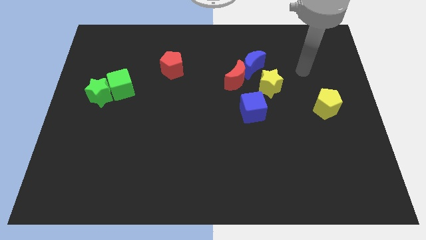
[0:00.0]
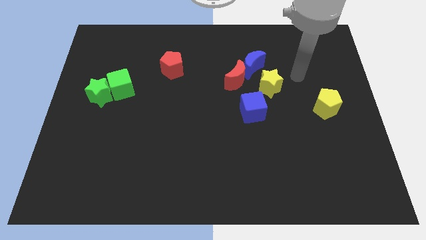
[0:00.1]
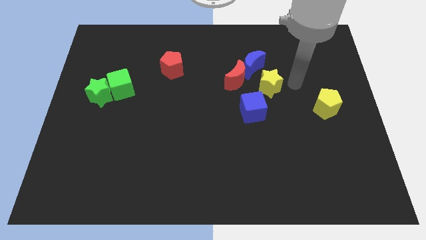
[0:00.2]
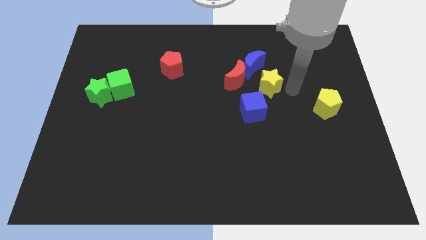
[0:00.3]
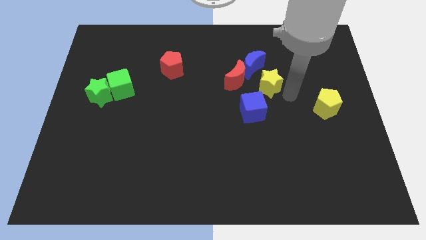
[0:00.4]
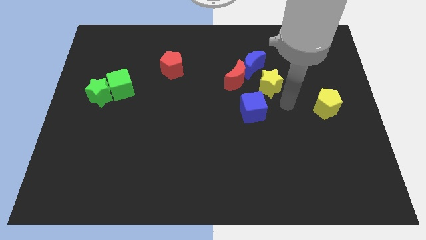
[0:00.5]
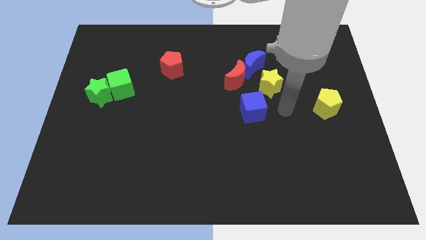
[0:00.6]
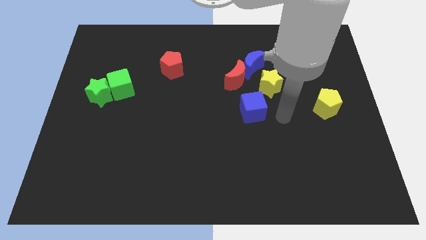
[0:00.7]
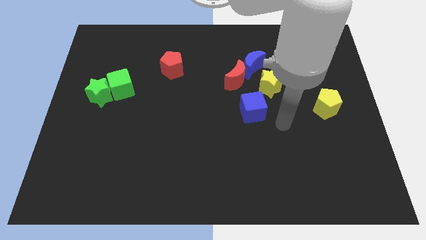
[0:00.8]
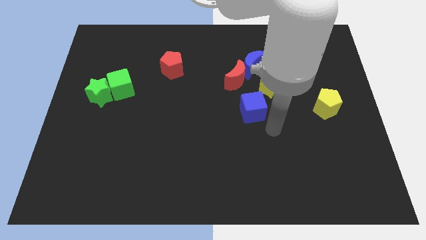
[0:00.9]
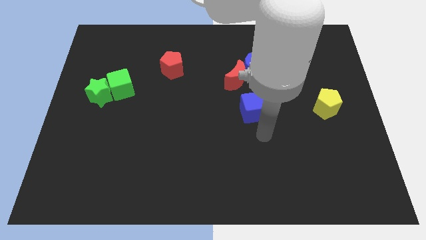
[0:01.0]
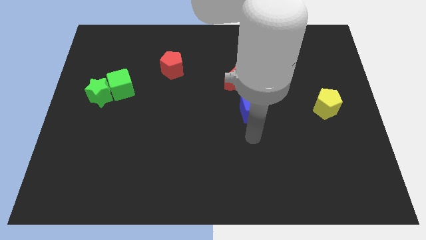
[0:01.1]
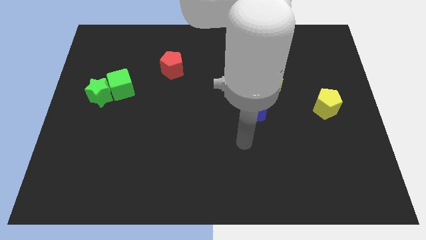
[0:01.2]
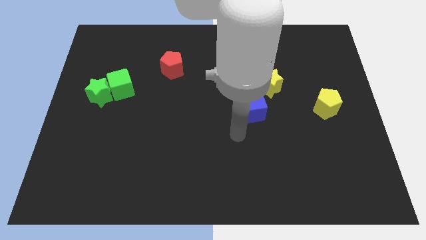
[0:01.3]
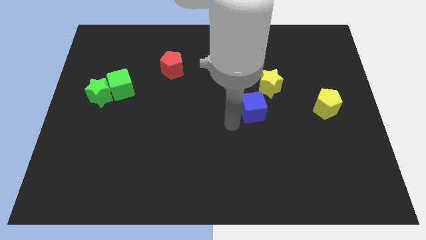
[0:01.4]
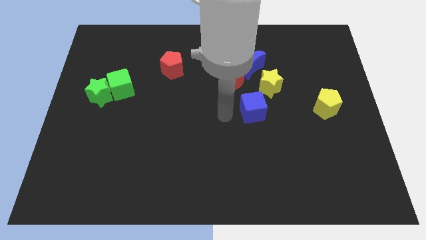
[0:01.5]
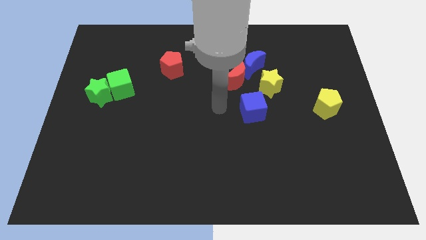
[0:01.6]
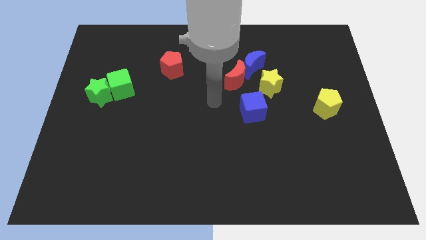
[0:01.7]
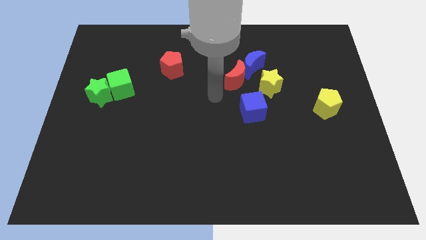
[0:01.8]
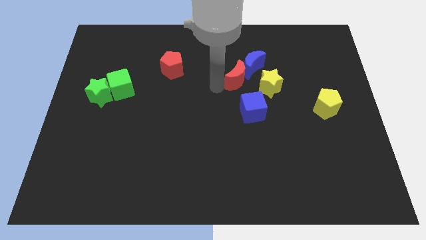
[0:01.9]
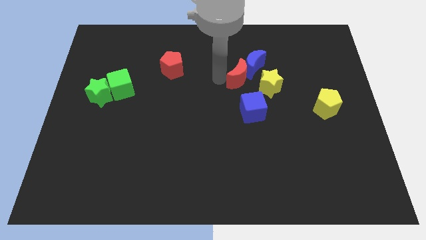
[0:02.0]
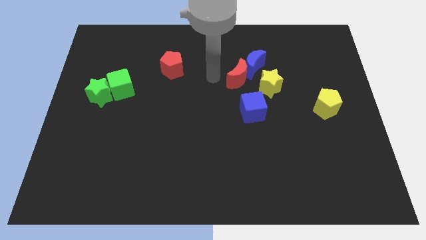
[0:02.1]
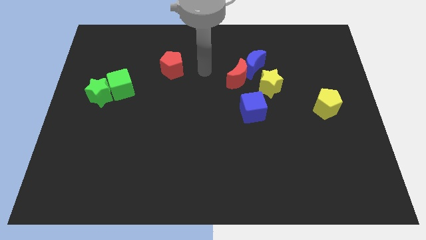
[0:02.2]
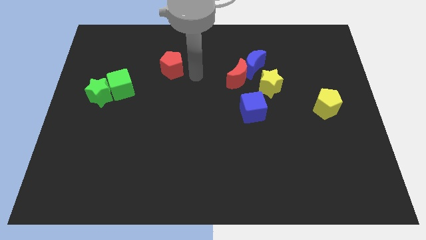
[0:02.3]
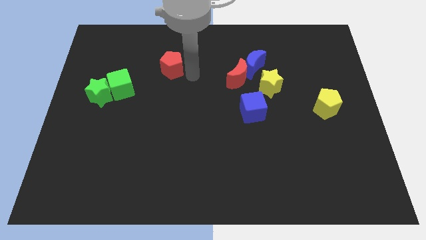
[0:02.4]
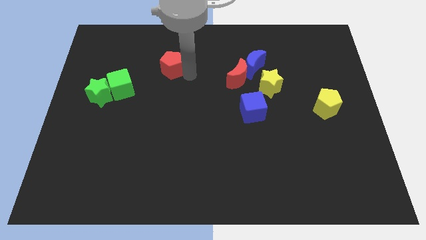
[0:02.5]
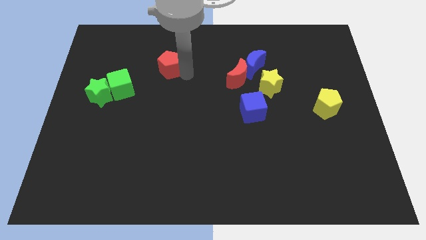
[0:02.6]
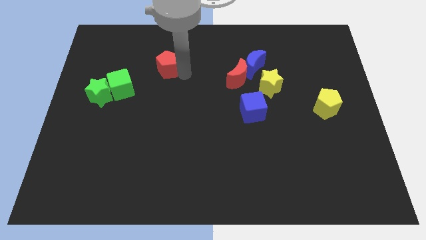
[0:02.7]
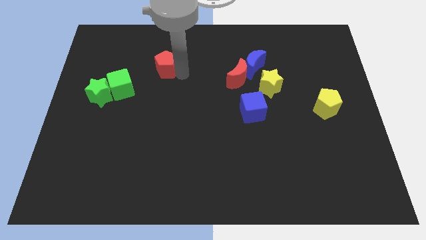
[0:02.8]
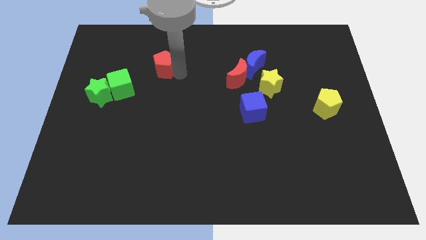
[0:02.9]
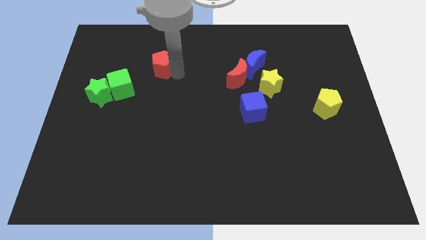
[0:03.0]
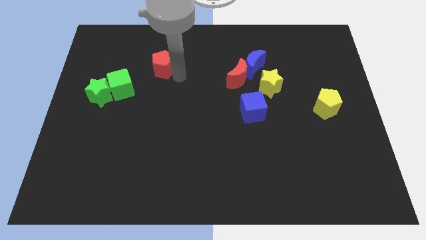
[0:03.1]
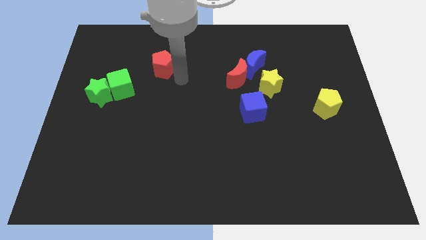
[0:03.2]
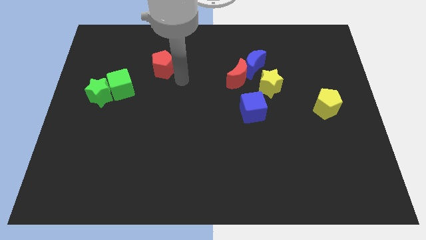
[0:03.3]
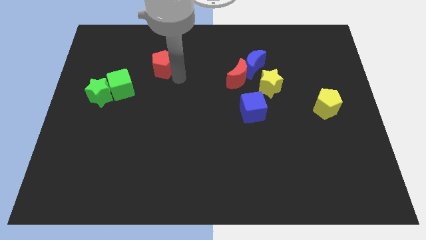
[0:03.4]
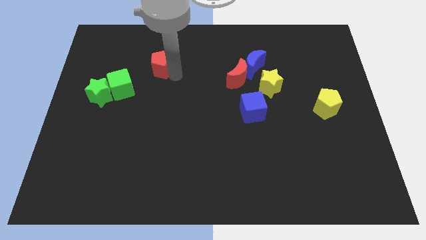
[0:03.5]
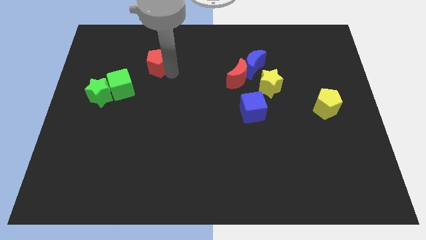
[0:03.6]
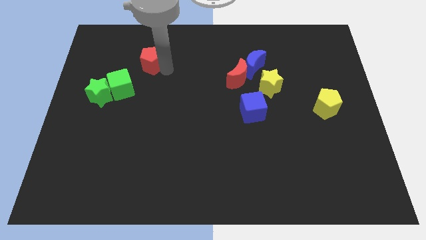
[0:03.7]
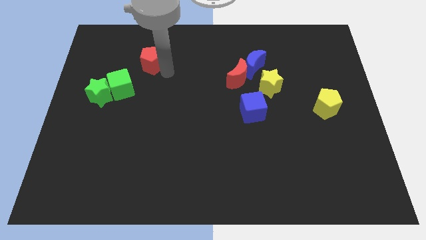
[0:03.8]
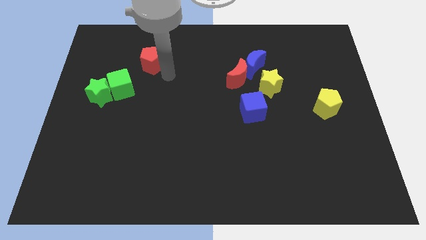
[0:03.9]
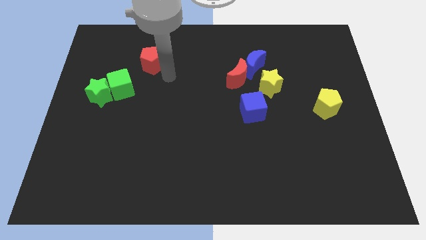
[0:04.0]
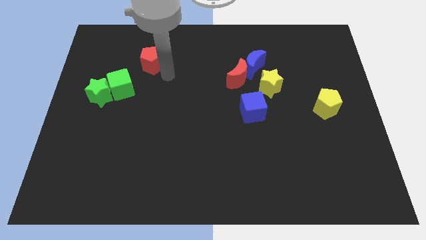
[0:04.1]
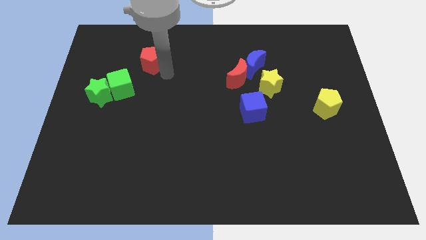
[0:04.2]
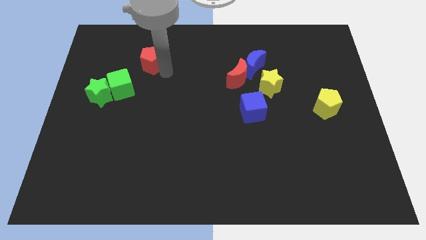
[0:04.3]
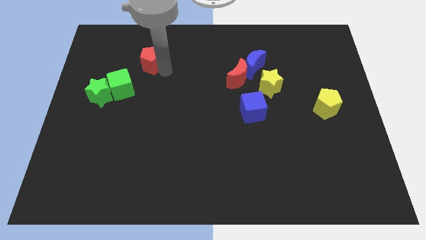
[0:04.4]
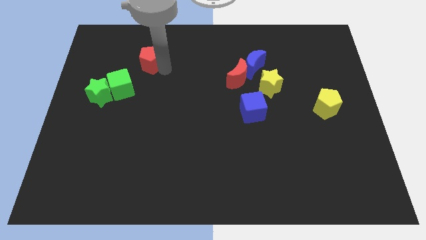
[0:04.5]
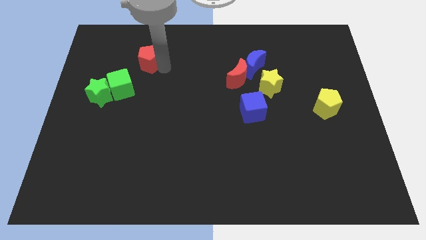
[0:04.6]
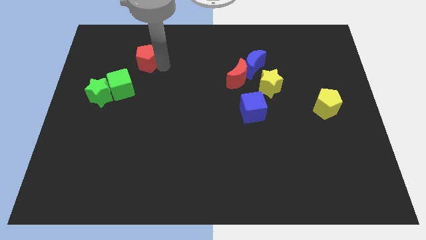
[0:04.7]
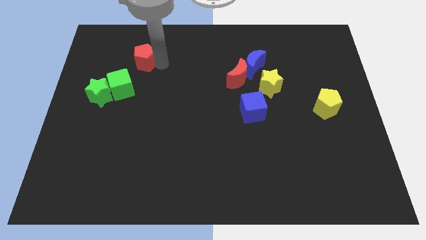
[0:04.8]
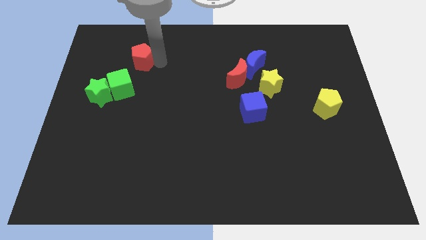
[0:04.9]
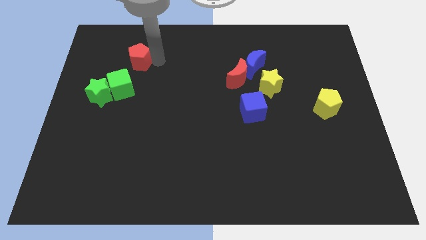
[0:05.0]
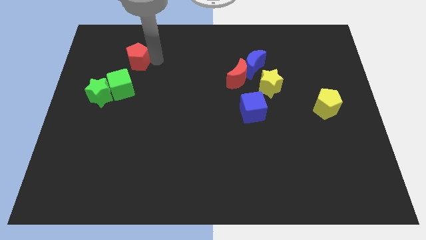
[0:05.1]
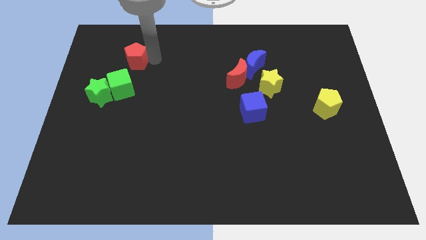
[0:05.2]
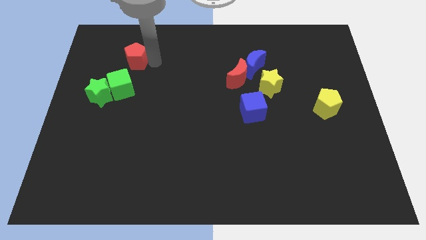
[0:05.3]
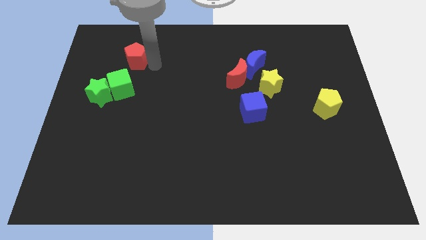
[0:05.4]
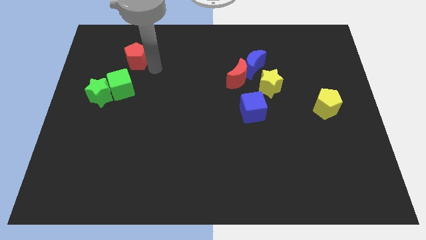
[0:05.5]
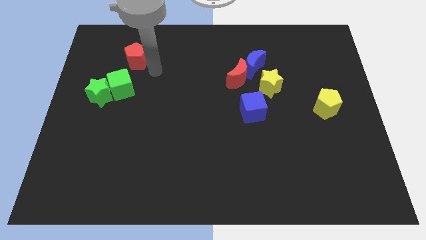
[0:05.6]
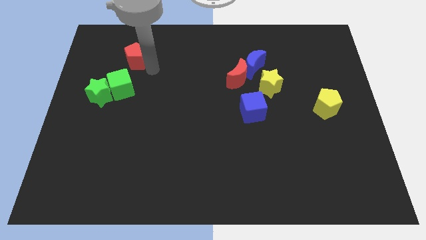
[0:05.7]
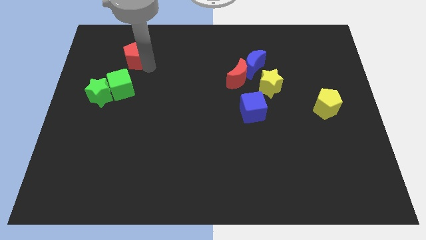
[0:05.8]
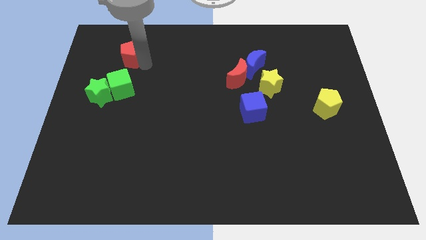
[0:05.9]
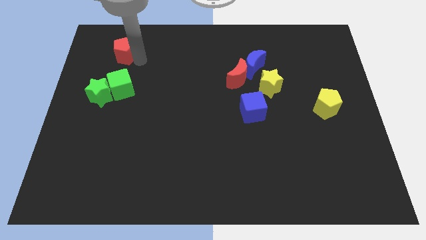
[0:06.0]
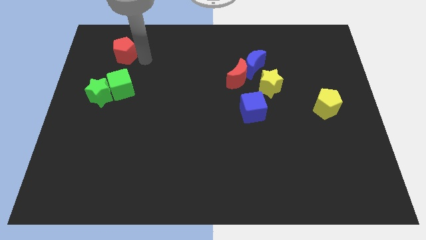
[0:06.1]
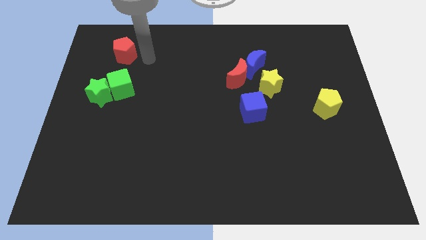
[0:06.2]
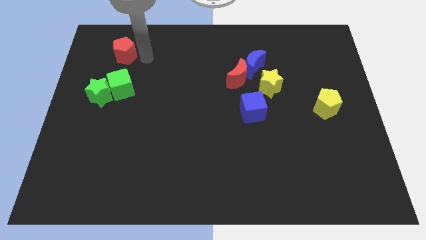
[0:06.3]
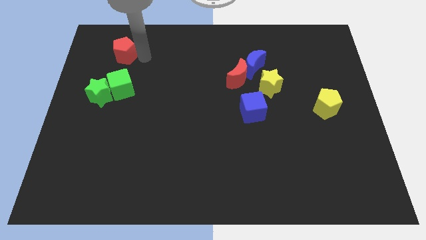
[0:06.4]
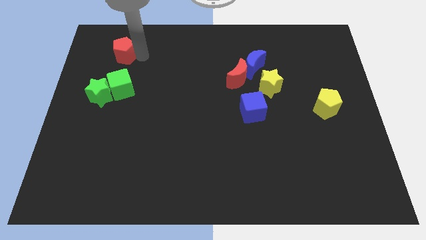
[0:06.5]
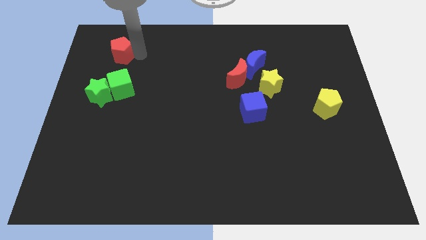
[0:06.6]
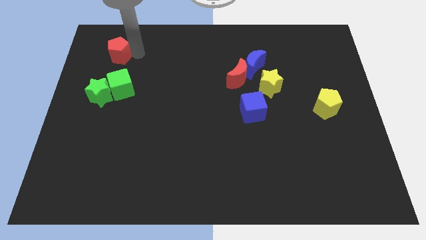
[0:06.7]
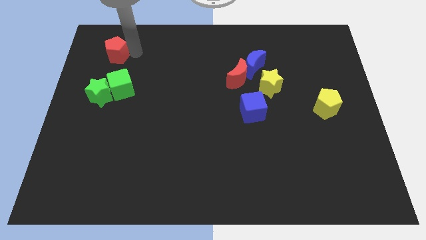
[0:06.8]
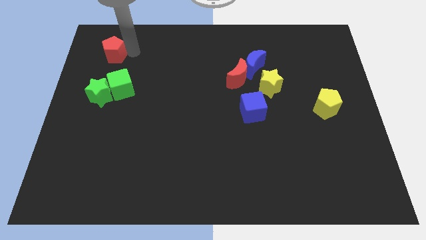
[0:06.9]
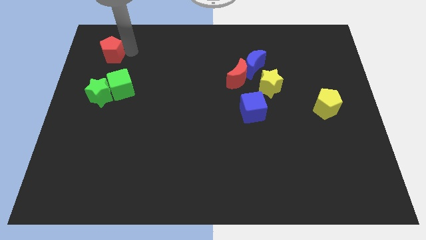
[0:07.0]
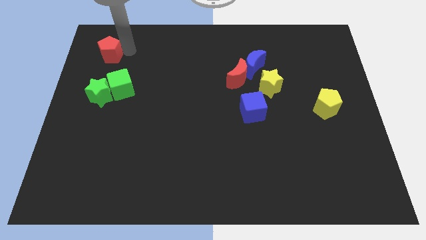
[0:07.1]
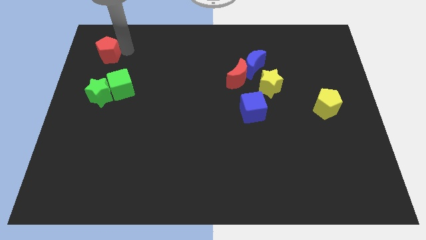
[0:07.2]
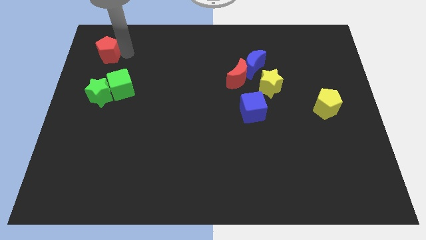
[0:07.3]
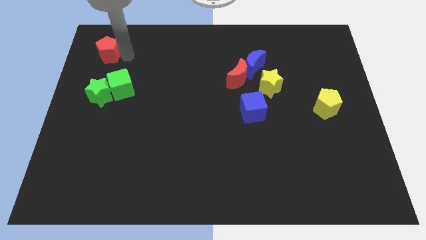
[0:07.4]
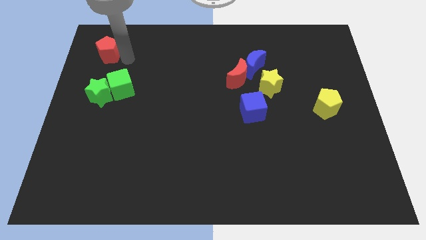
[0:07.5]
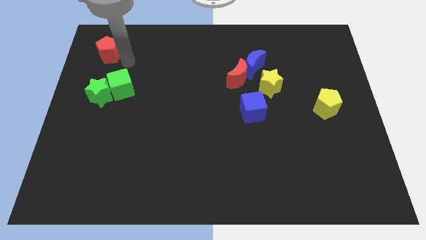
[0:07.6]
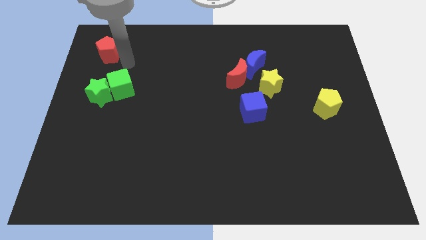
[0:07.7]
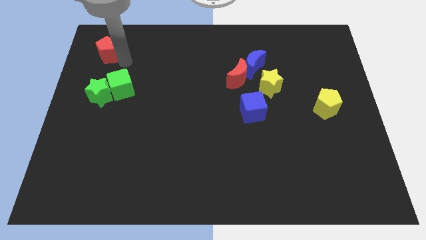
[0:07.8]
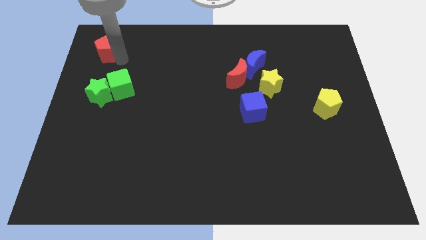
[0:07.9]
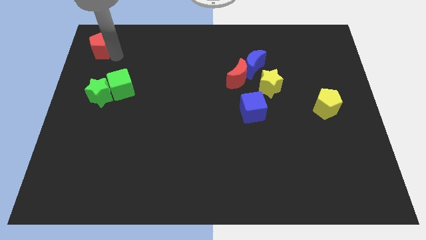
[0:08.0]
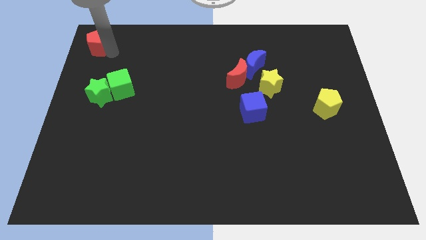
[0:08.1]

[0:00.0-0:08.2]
slide the red pentagon to the top left corner
